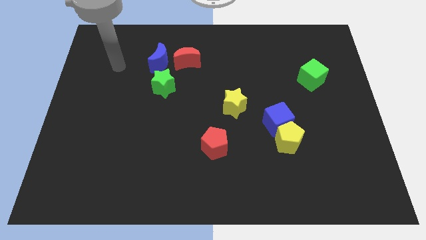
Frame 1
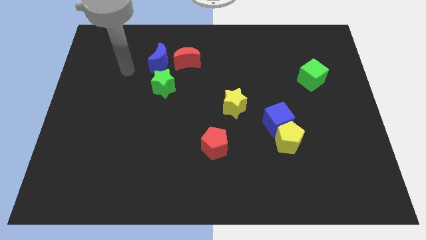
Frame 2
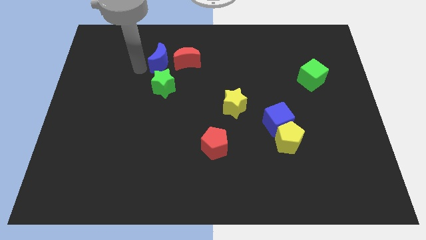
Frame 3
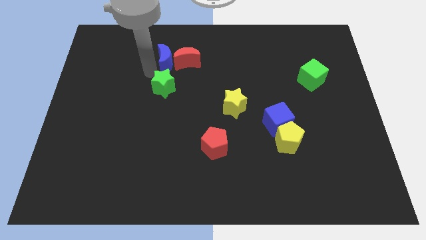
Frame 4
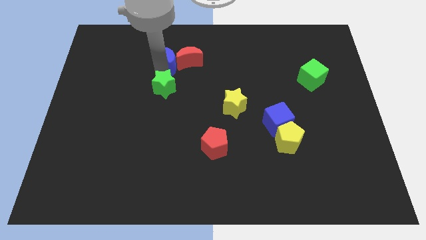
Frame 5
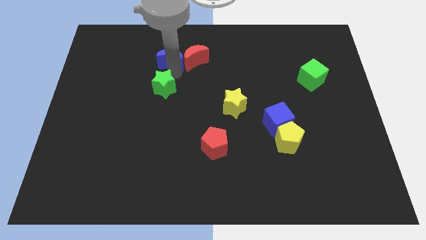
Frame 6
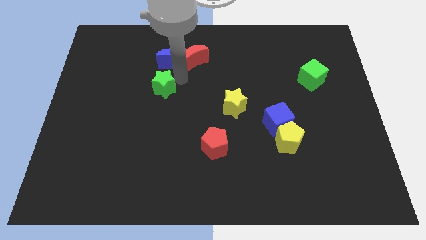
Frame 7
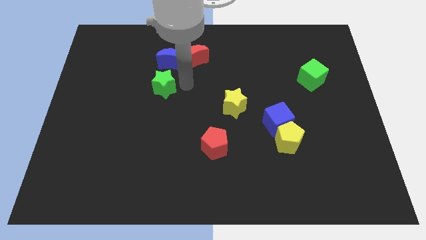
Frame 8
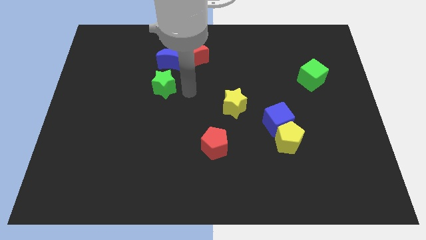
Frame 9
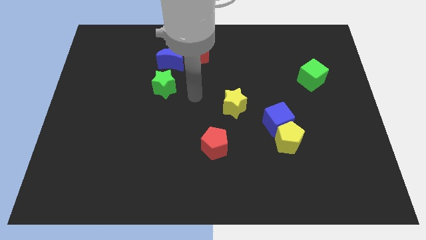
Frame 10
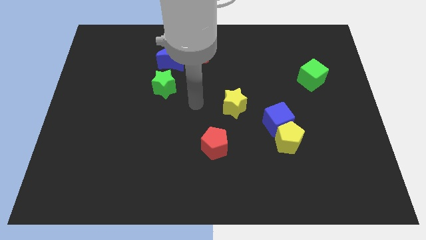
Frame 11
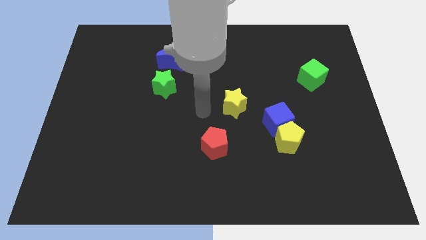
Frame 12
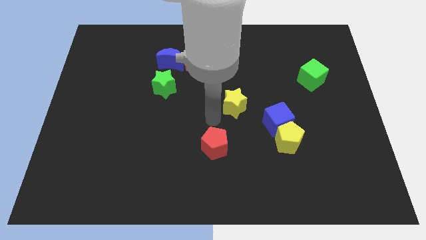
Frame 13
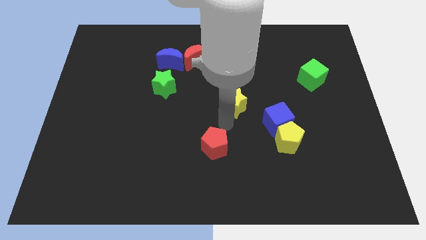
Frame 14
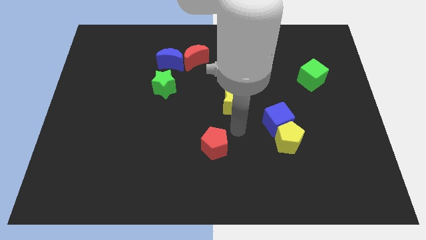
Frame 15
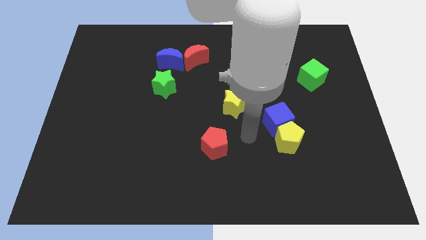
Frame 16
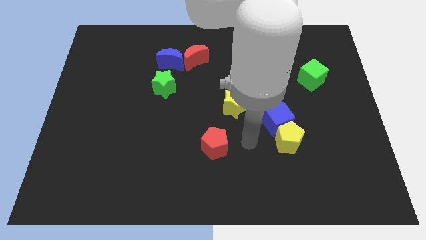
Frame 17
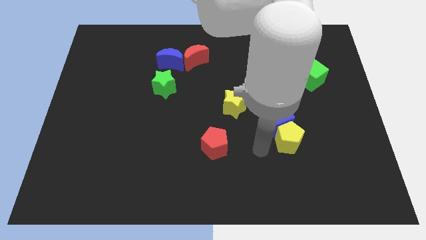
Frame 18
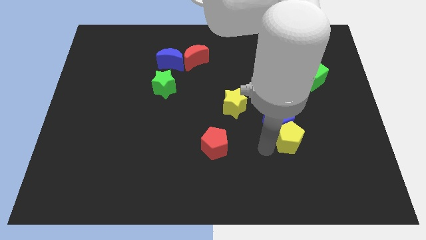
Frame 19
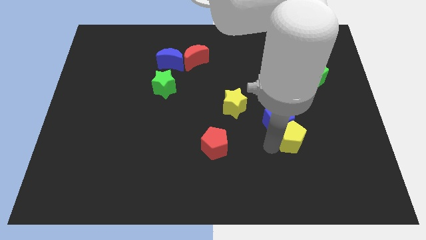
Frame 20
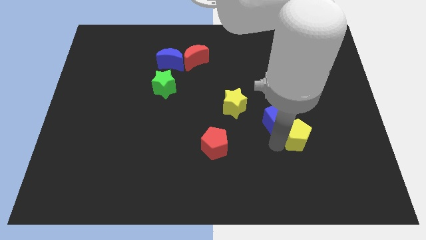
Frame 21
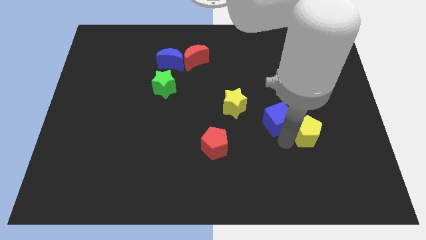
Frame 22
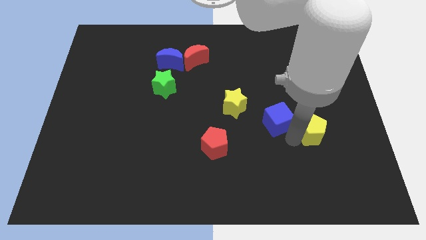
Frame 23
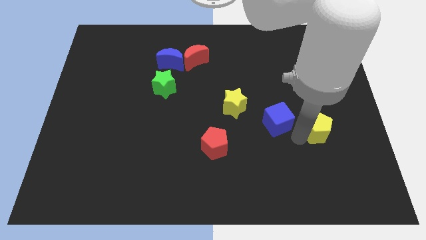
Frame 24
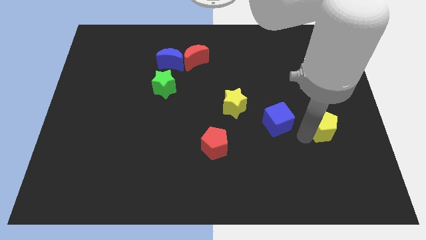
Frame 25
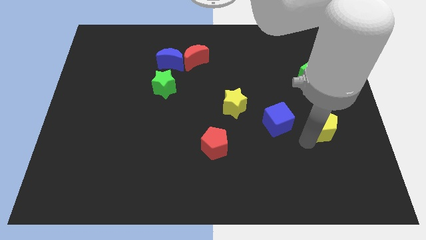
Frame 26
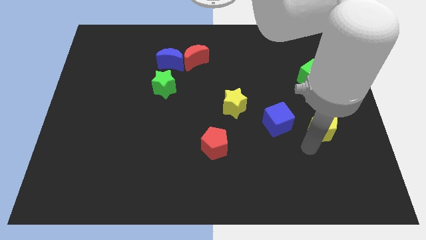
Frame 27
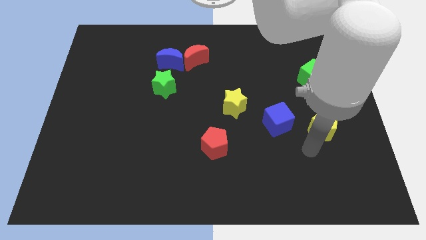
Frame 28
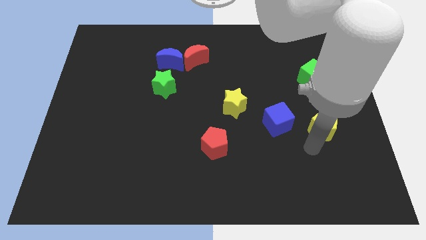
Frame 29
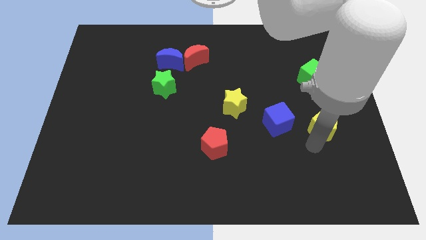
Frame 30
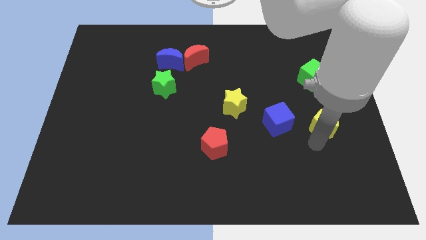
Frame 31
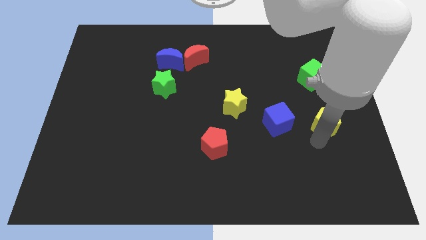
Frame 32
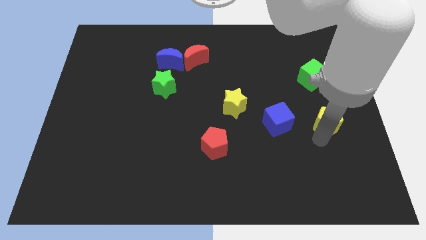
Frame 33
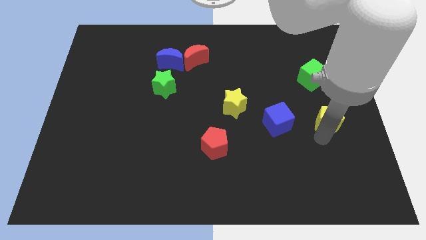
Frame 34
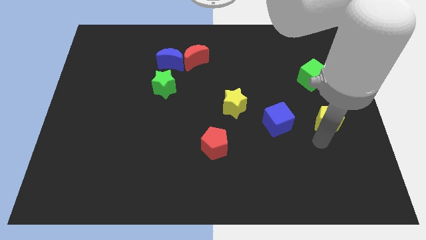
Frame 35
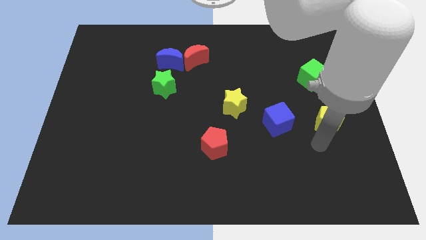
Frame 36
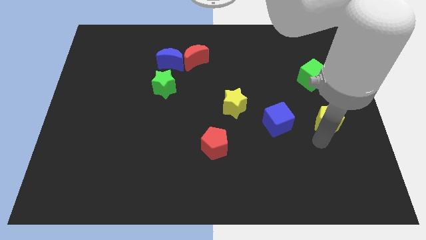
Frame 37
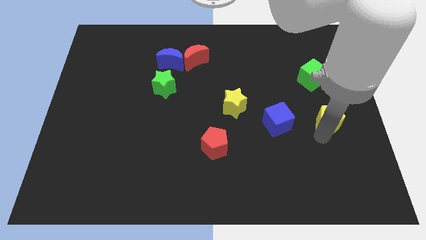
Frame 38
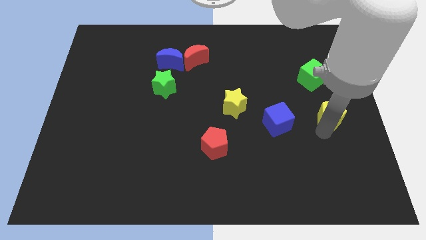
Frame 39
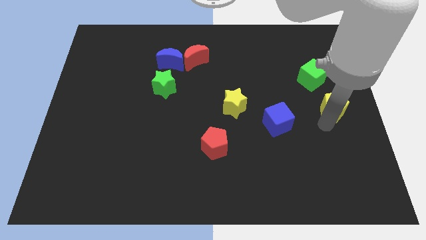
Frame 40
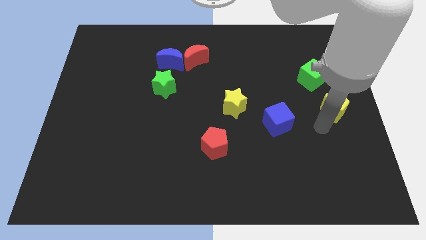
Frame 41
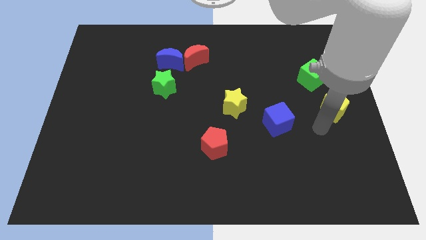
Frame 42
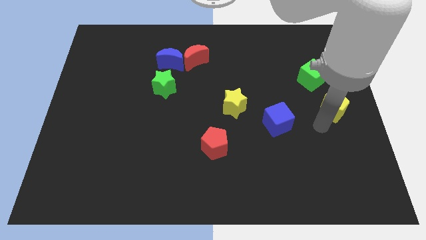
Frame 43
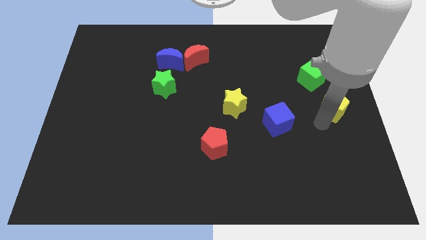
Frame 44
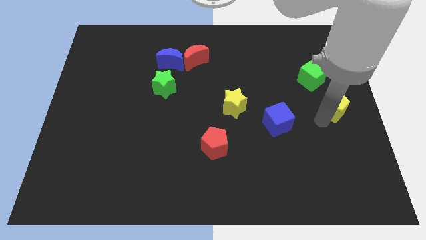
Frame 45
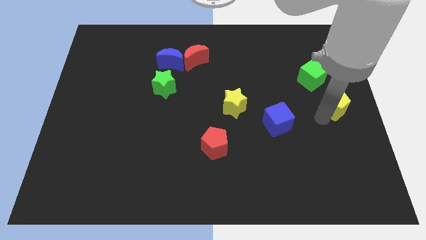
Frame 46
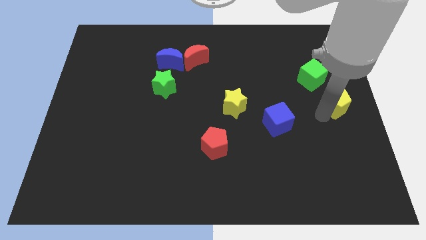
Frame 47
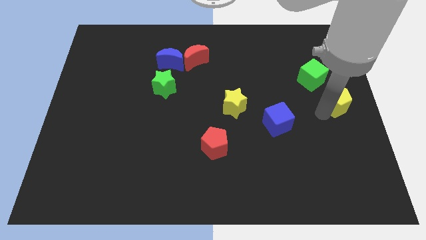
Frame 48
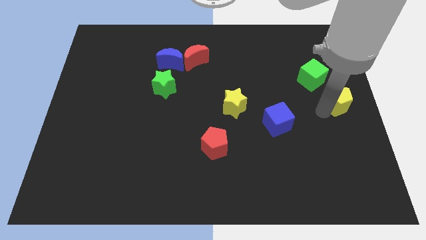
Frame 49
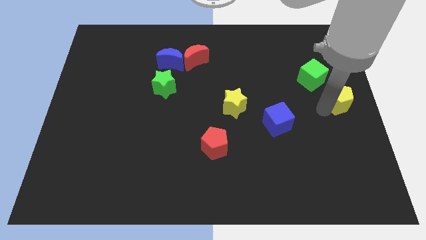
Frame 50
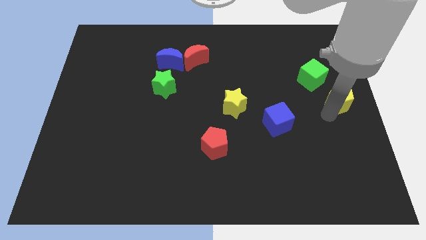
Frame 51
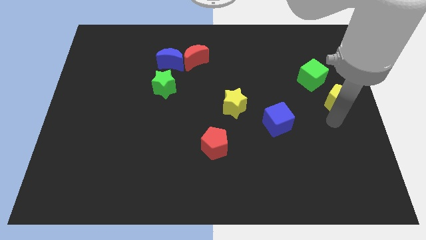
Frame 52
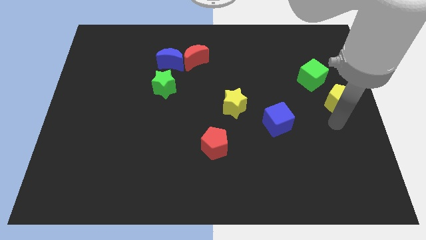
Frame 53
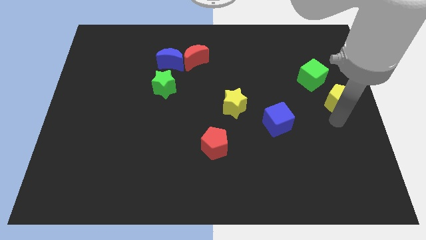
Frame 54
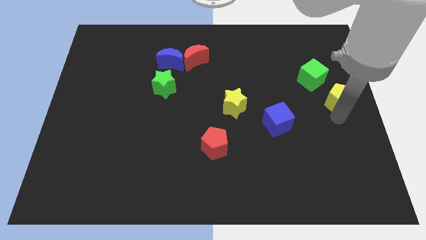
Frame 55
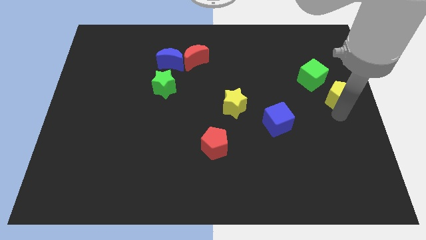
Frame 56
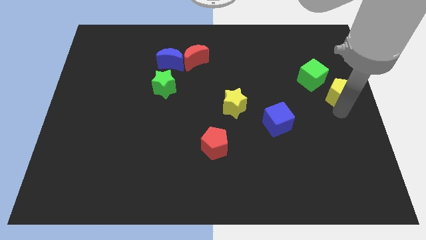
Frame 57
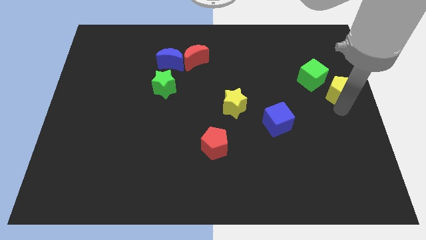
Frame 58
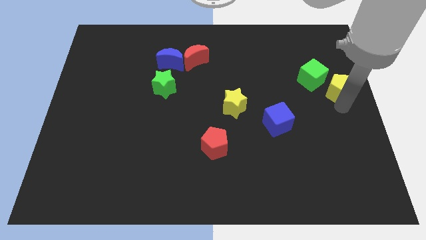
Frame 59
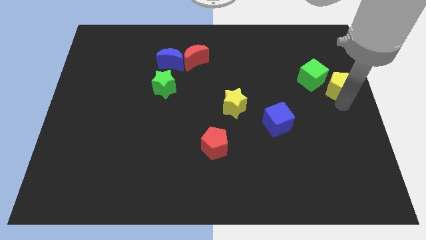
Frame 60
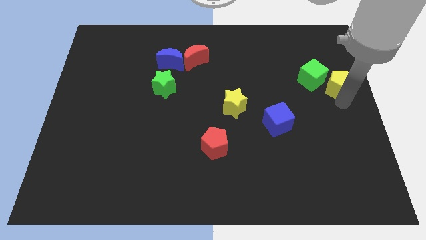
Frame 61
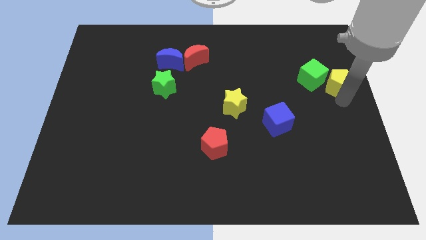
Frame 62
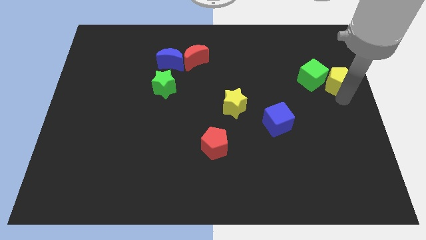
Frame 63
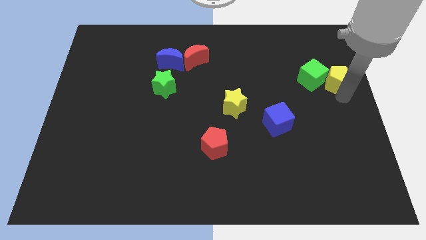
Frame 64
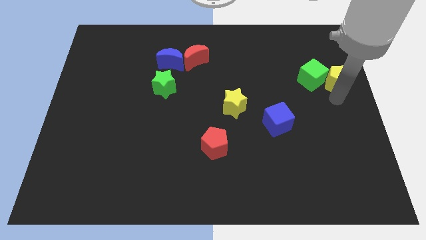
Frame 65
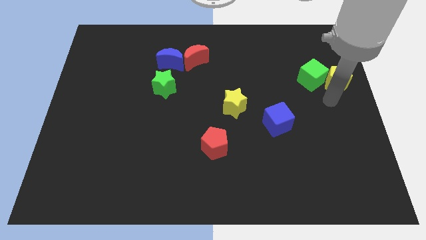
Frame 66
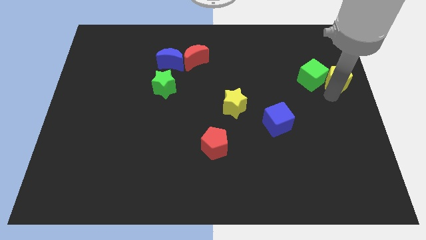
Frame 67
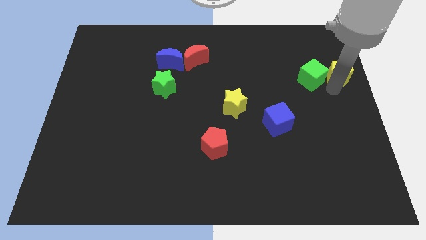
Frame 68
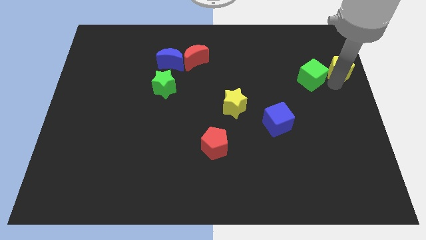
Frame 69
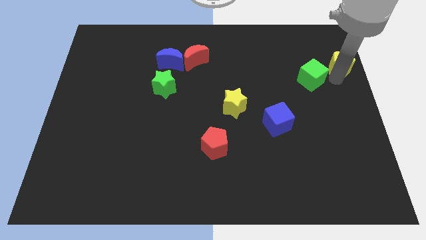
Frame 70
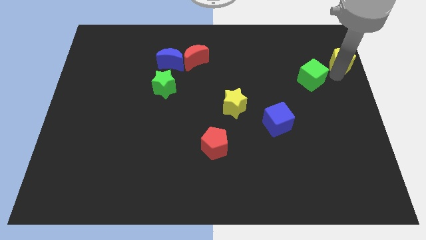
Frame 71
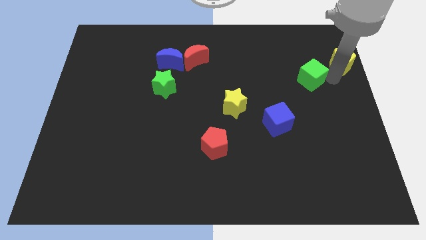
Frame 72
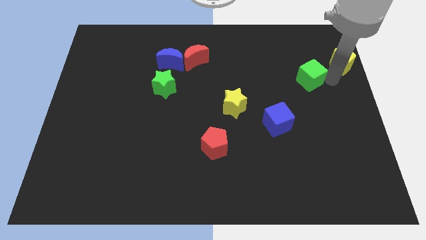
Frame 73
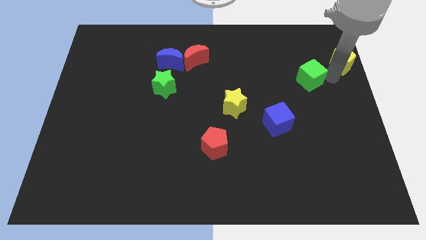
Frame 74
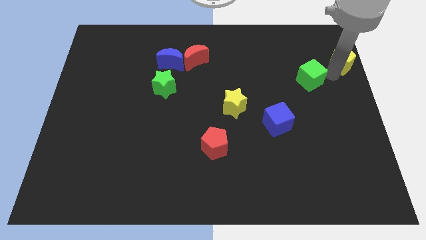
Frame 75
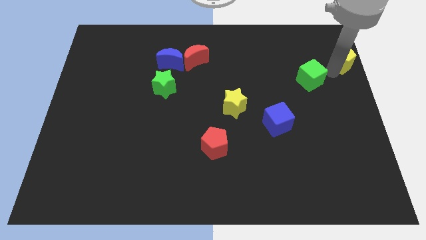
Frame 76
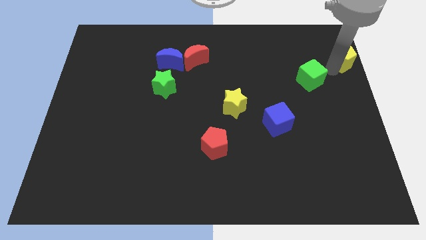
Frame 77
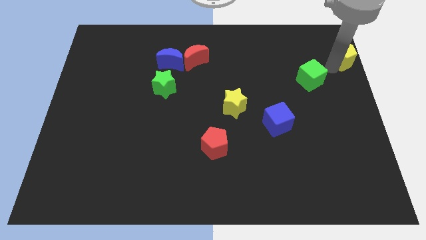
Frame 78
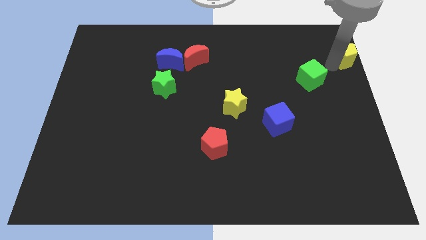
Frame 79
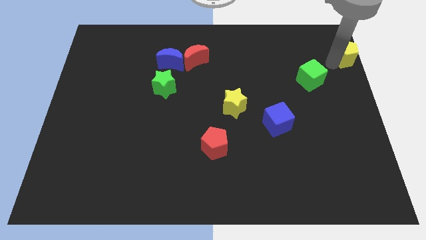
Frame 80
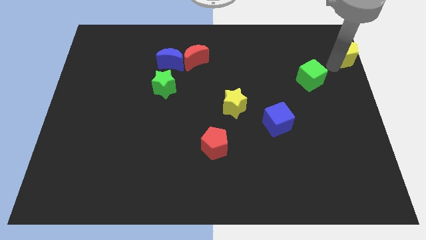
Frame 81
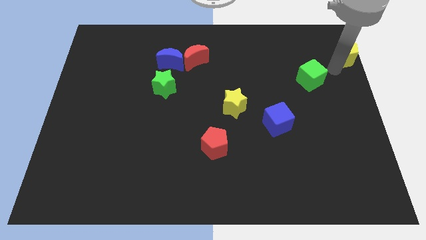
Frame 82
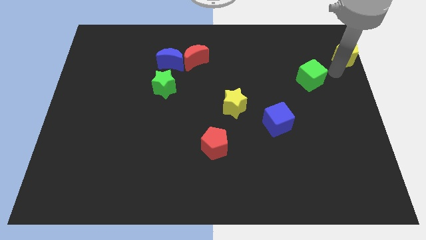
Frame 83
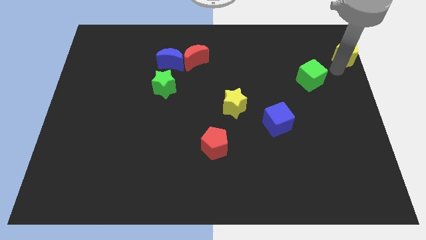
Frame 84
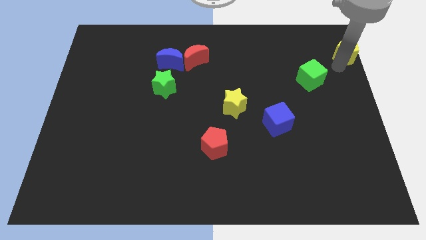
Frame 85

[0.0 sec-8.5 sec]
slide the yellow pentagon to the top right
